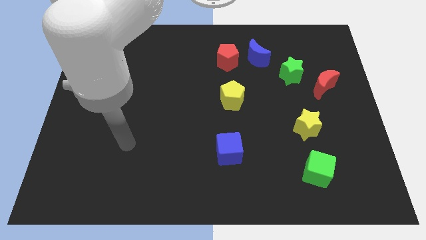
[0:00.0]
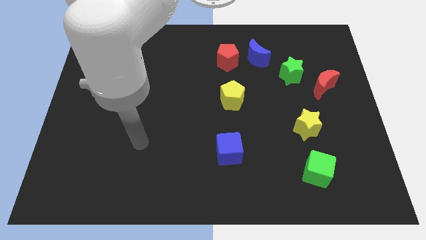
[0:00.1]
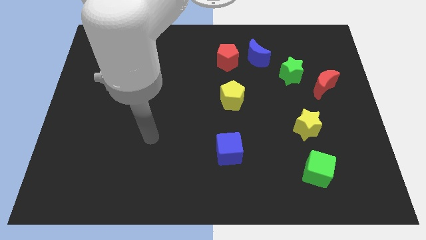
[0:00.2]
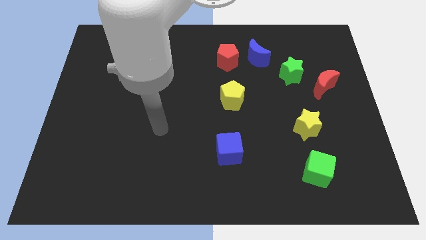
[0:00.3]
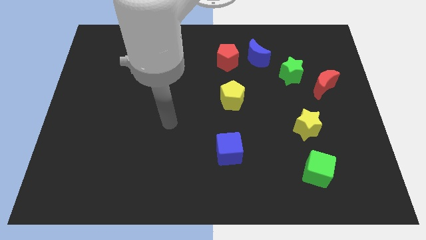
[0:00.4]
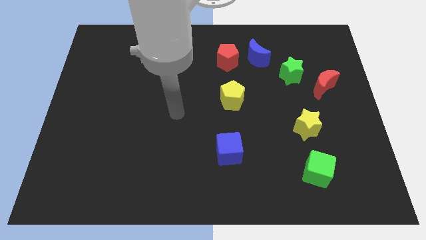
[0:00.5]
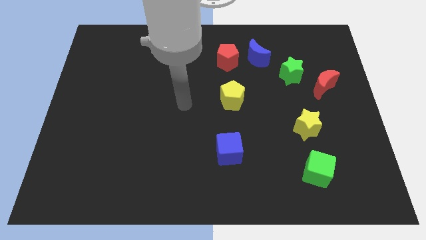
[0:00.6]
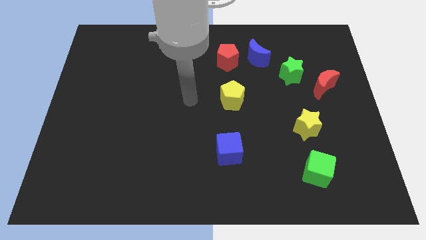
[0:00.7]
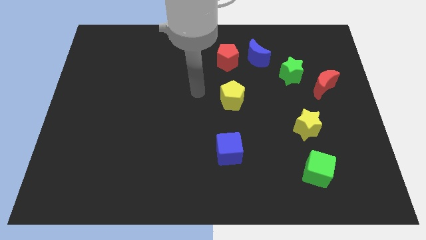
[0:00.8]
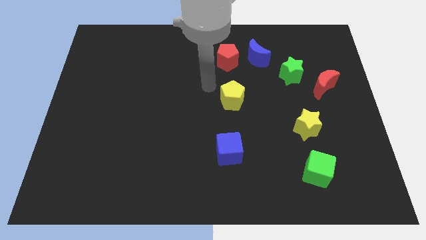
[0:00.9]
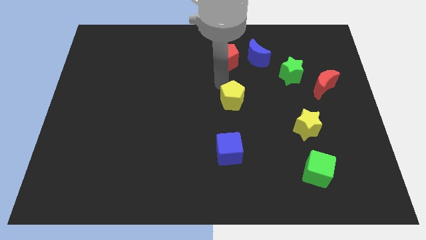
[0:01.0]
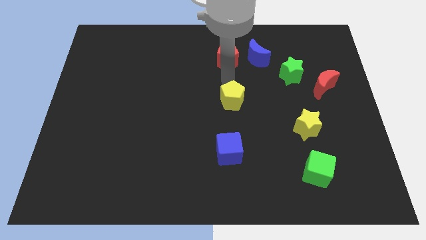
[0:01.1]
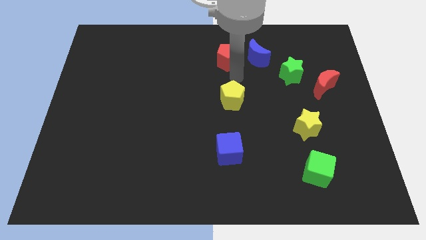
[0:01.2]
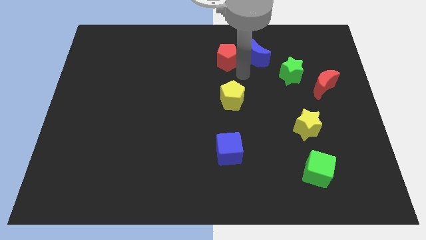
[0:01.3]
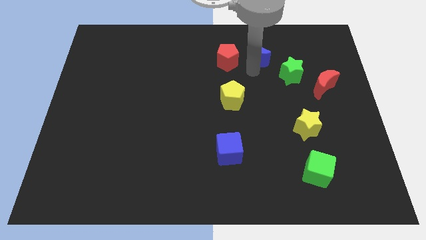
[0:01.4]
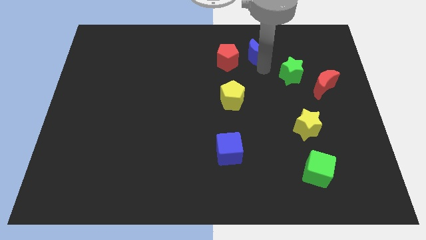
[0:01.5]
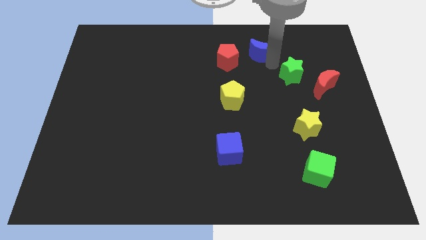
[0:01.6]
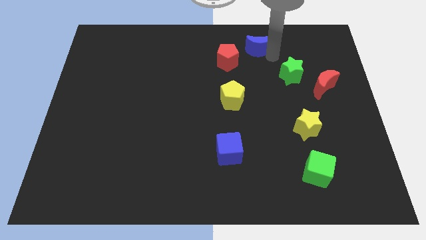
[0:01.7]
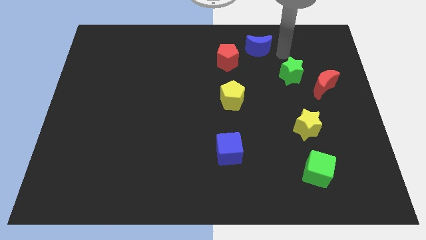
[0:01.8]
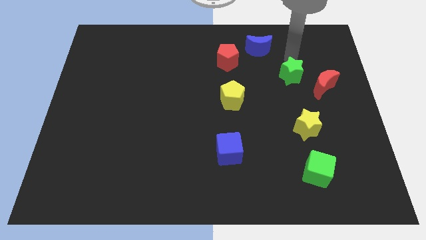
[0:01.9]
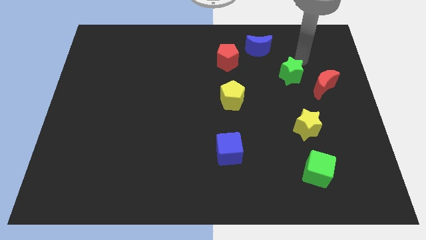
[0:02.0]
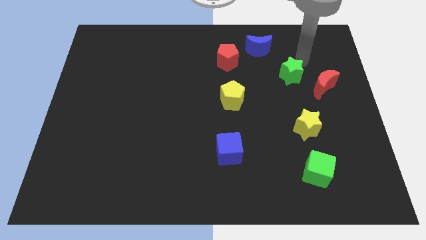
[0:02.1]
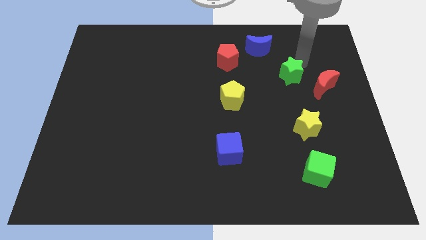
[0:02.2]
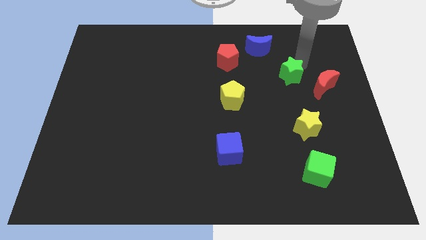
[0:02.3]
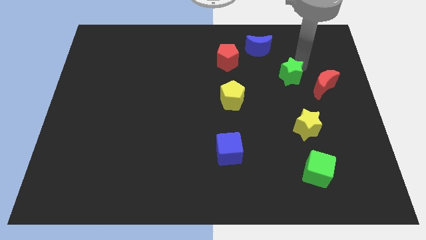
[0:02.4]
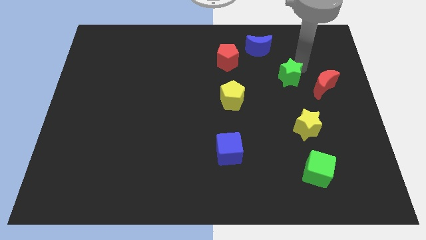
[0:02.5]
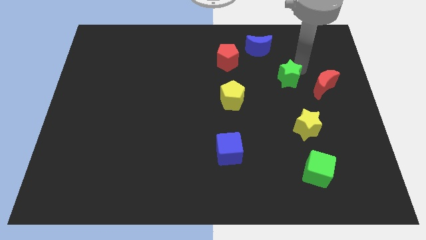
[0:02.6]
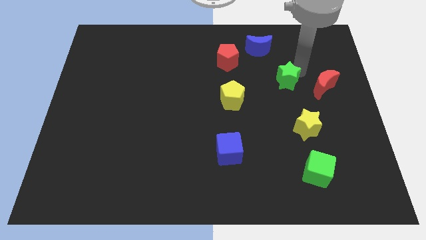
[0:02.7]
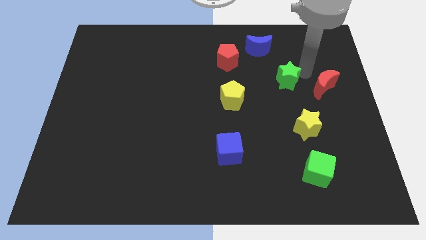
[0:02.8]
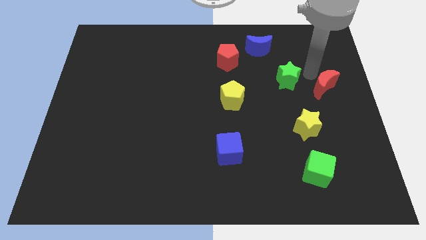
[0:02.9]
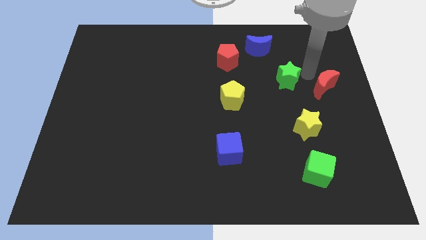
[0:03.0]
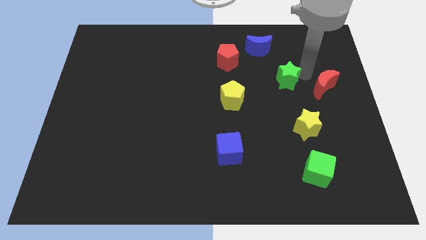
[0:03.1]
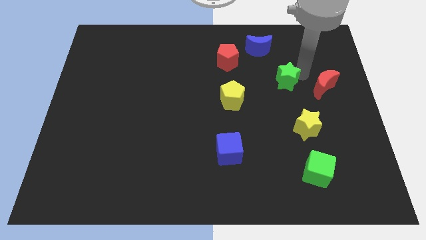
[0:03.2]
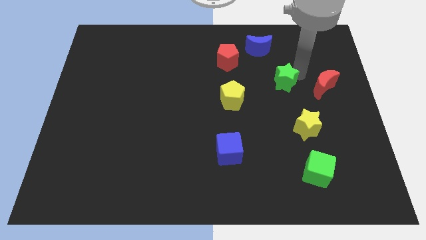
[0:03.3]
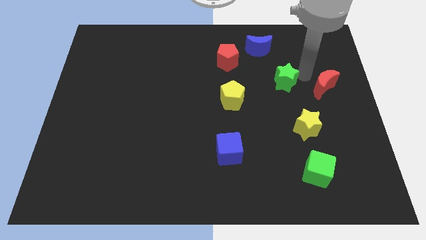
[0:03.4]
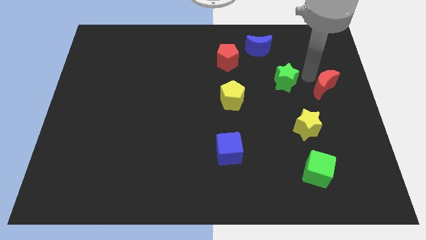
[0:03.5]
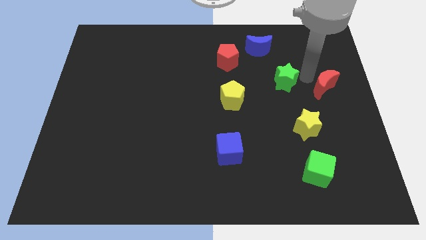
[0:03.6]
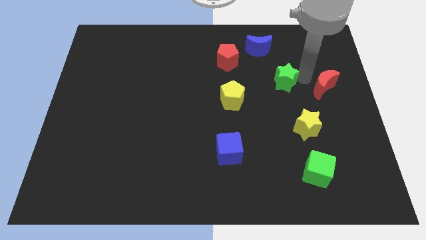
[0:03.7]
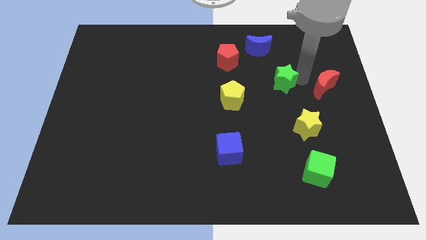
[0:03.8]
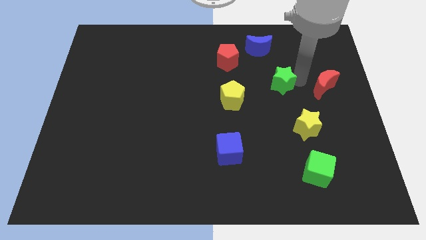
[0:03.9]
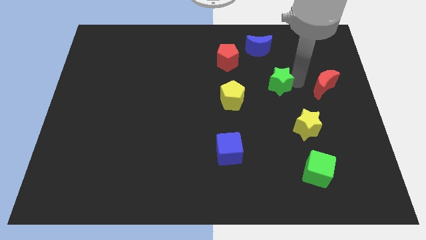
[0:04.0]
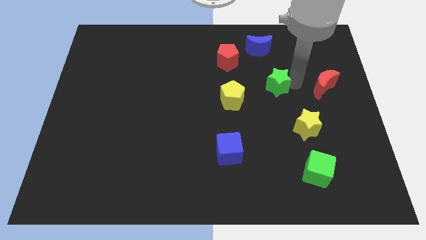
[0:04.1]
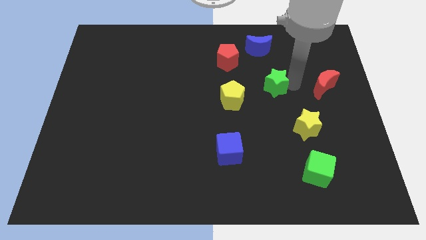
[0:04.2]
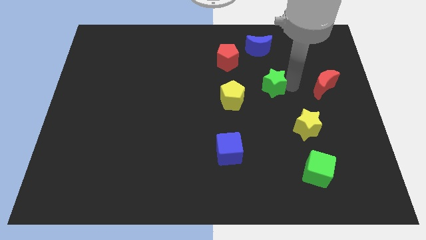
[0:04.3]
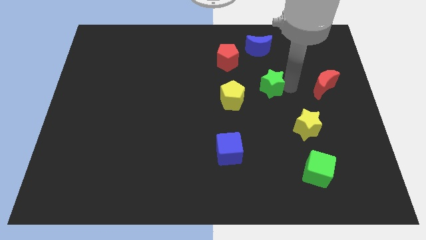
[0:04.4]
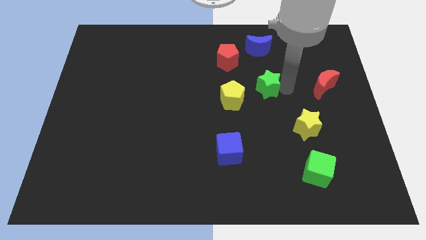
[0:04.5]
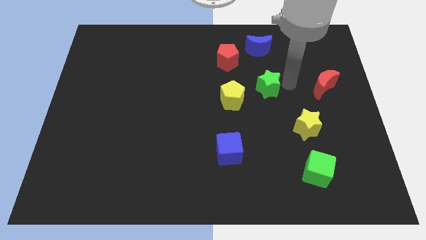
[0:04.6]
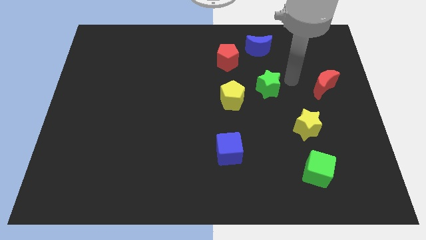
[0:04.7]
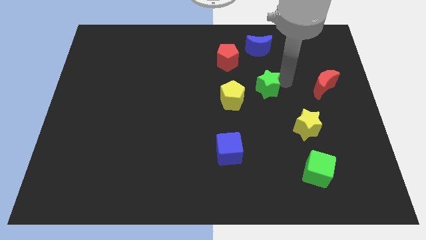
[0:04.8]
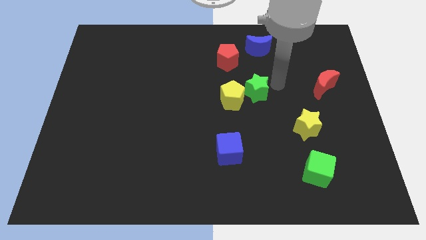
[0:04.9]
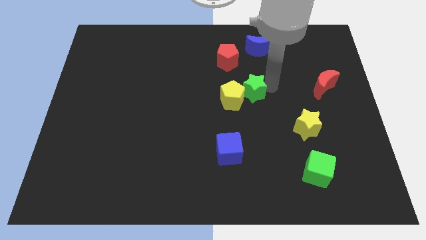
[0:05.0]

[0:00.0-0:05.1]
push the green star to the yellow pentagon

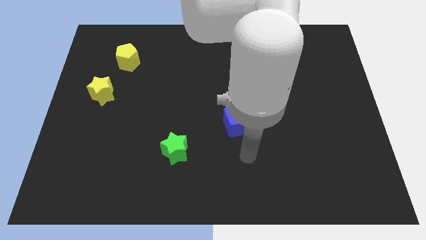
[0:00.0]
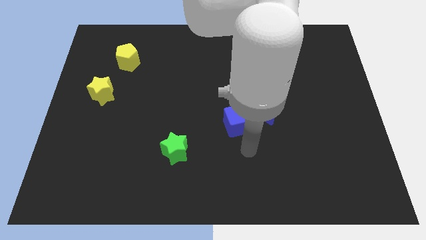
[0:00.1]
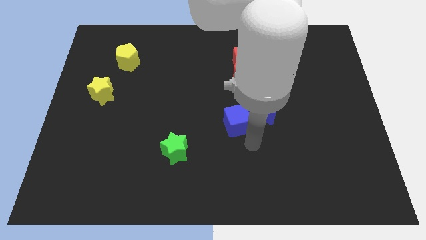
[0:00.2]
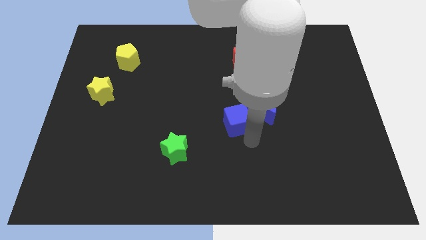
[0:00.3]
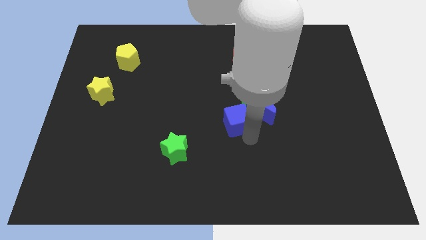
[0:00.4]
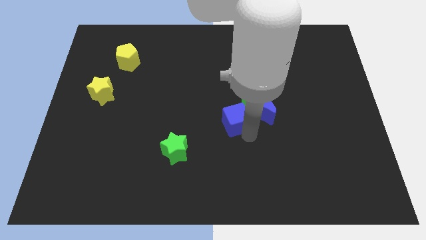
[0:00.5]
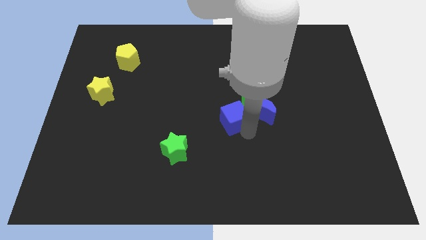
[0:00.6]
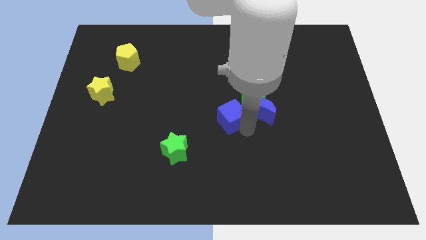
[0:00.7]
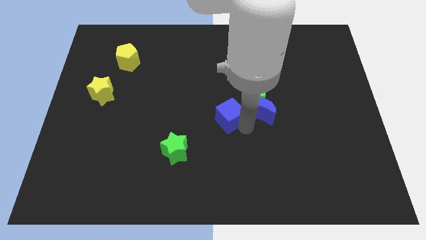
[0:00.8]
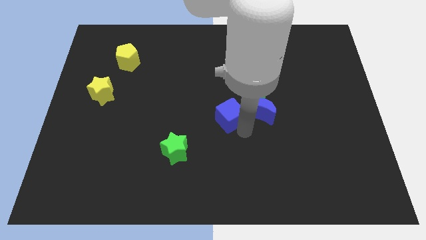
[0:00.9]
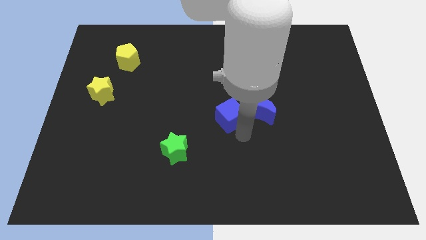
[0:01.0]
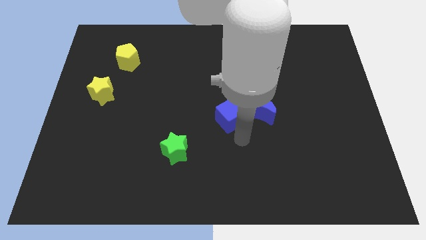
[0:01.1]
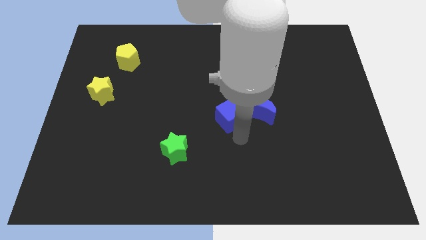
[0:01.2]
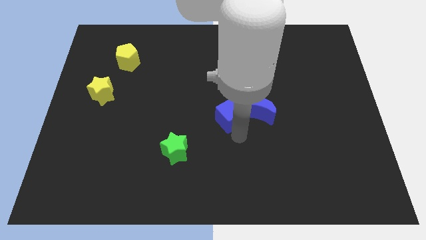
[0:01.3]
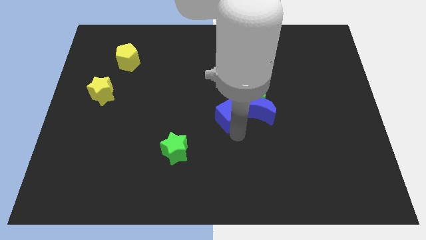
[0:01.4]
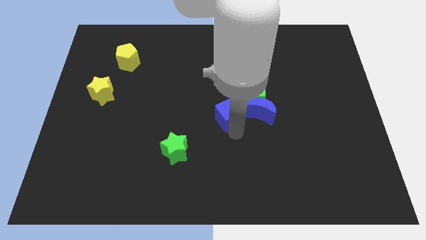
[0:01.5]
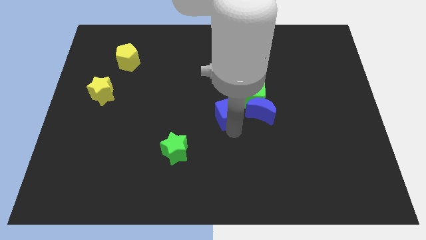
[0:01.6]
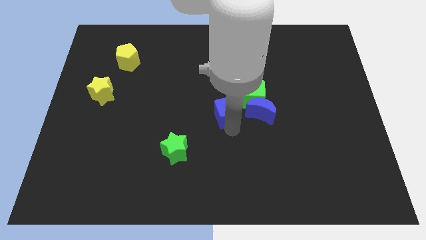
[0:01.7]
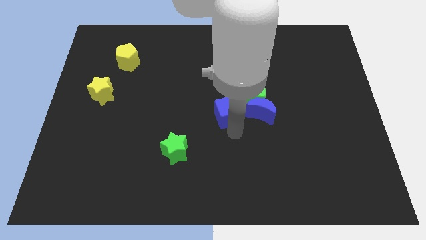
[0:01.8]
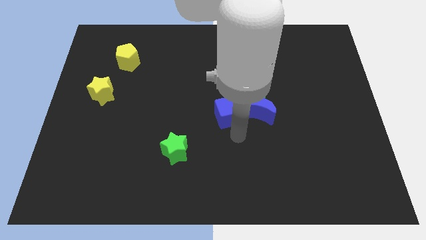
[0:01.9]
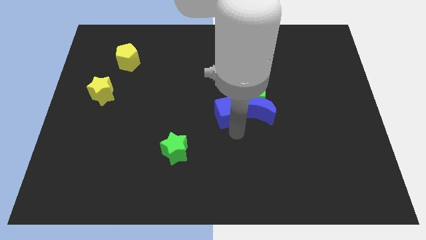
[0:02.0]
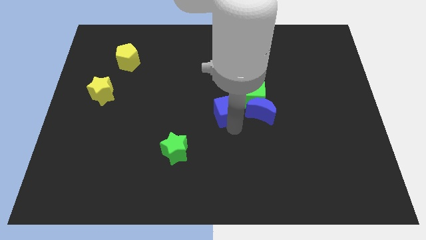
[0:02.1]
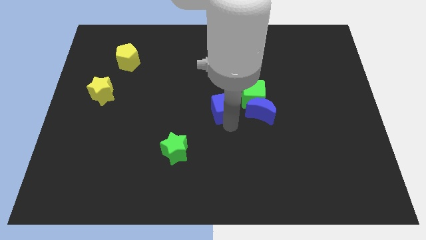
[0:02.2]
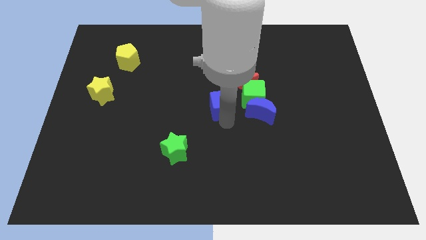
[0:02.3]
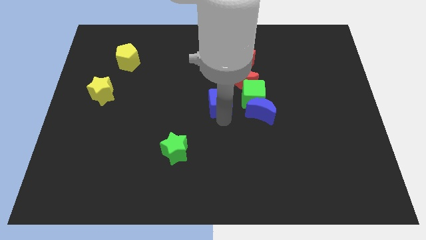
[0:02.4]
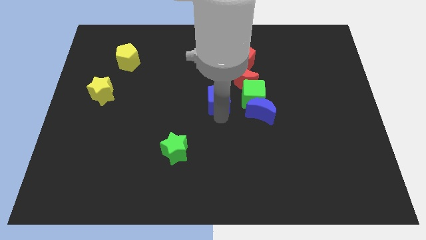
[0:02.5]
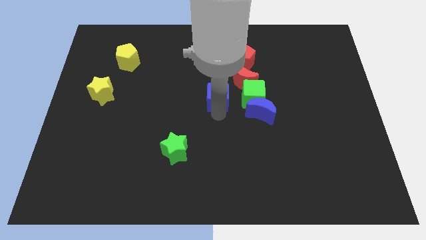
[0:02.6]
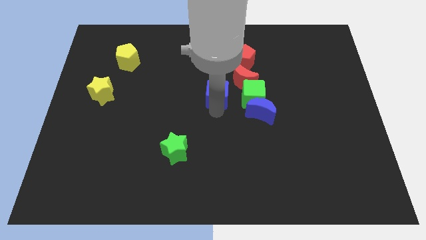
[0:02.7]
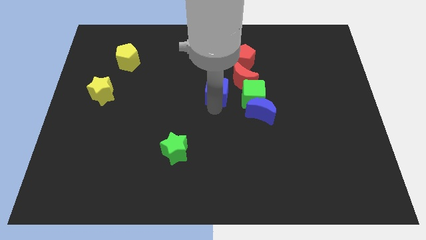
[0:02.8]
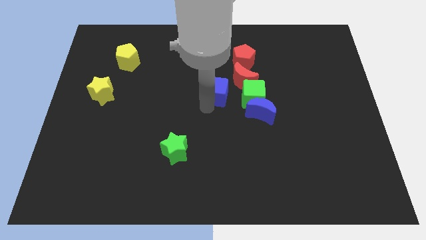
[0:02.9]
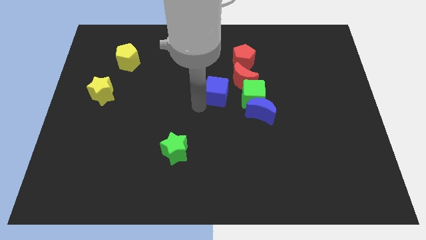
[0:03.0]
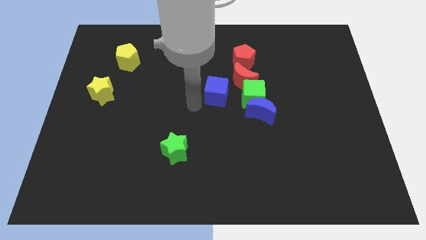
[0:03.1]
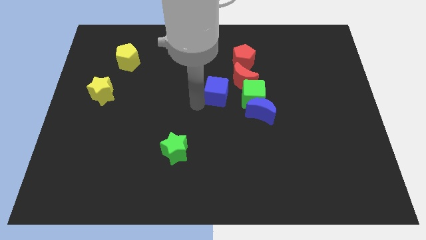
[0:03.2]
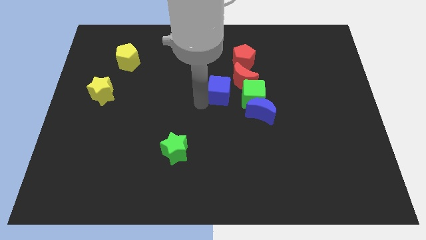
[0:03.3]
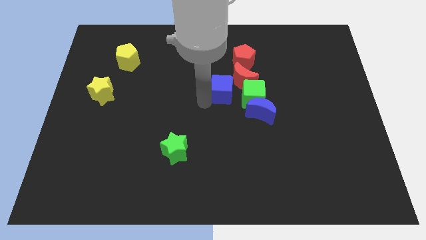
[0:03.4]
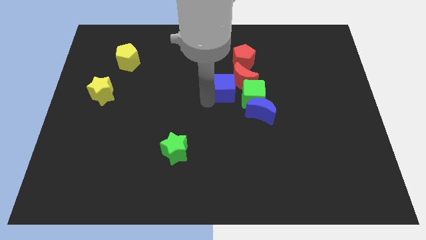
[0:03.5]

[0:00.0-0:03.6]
move the blue cube close to the red moon
